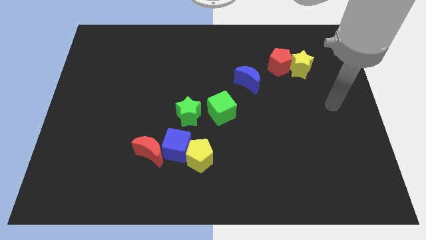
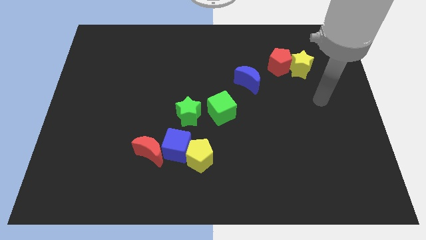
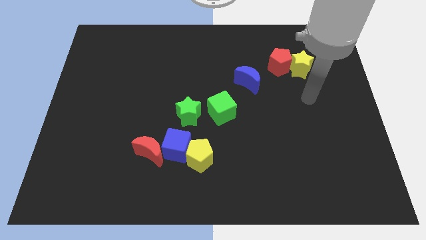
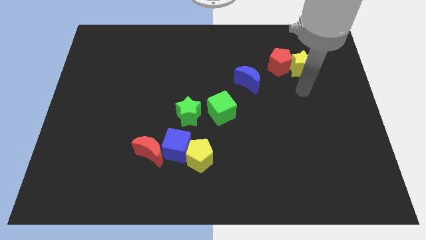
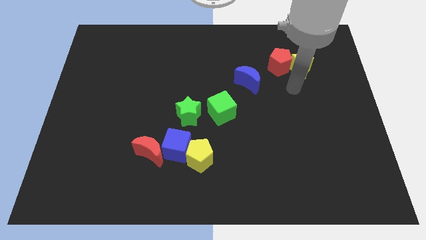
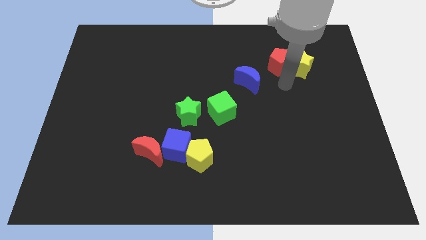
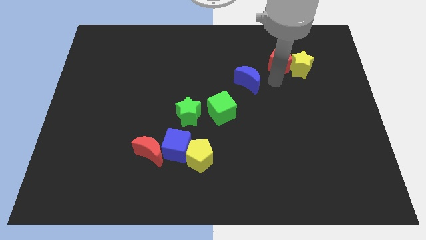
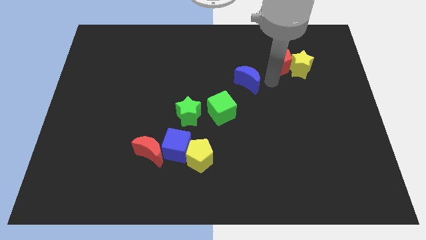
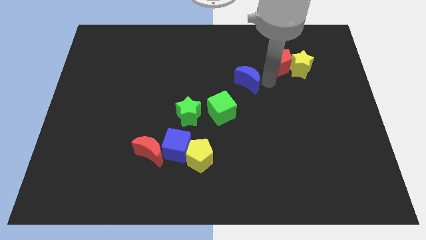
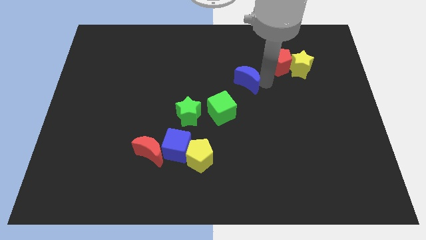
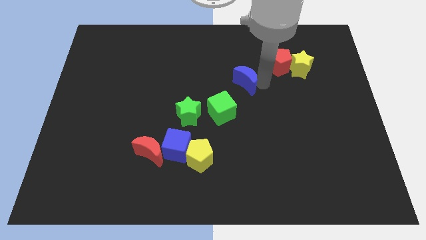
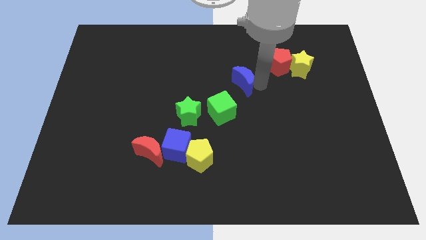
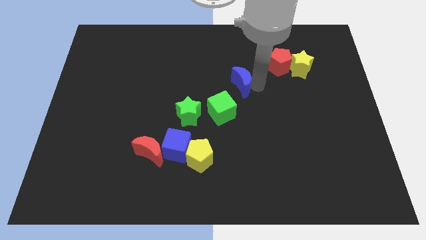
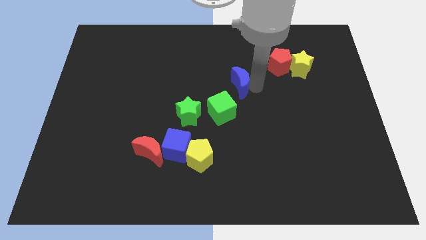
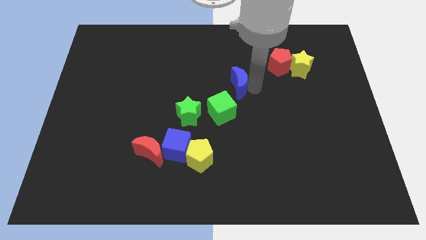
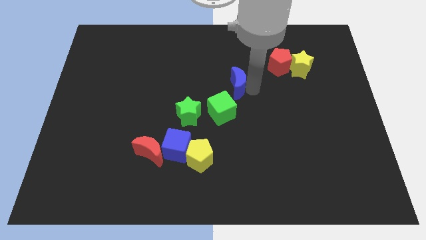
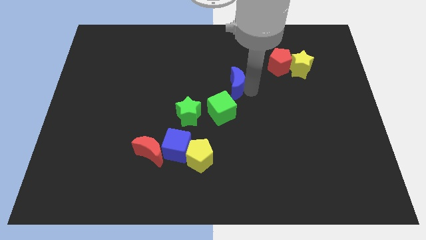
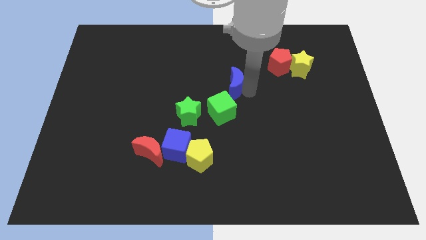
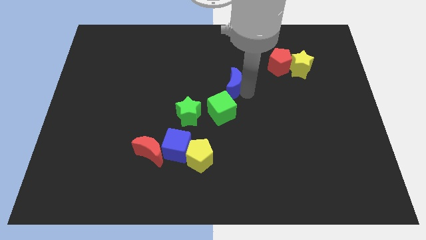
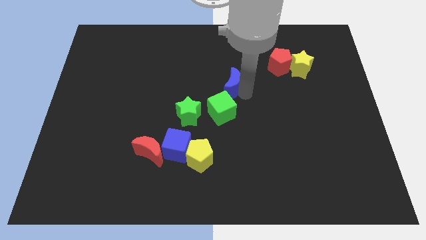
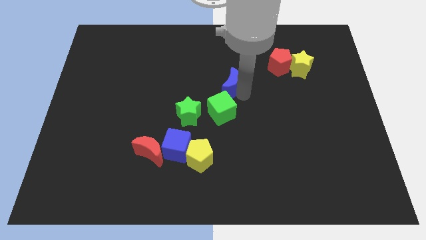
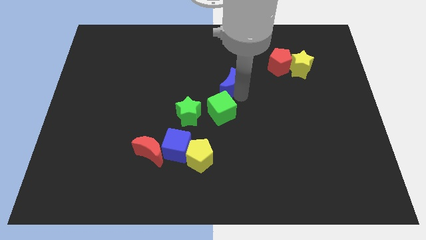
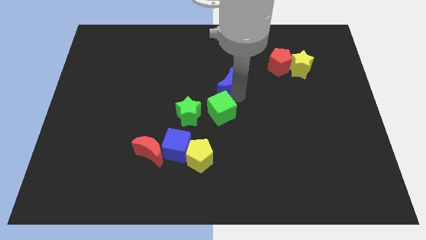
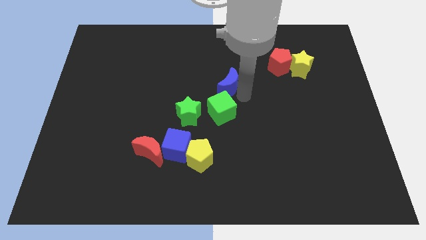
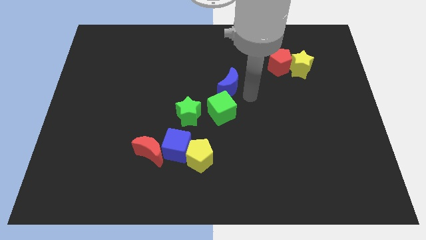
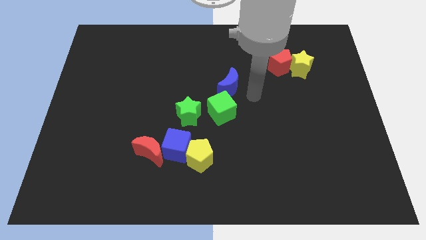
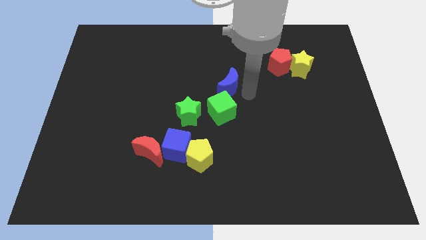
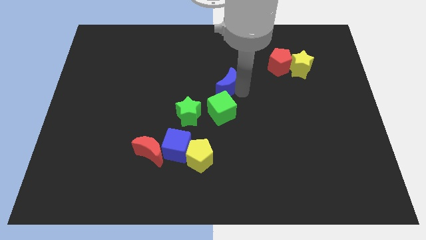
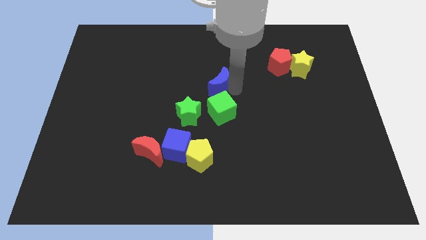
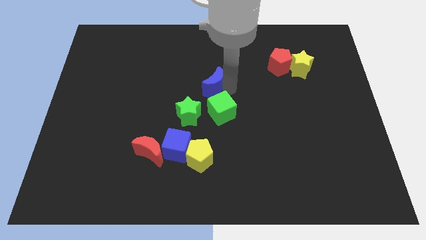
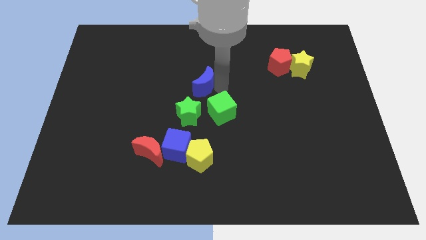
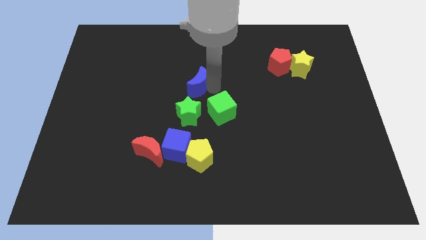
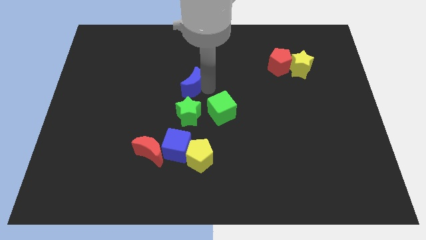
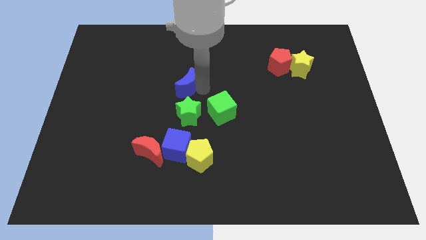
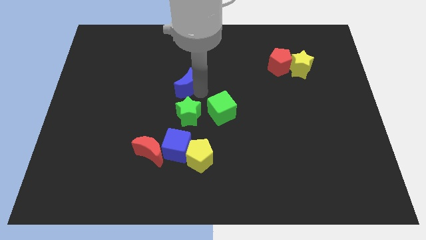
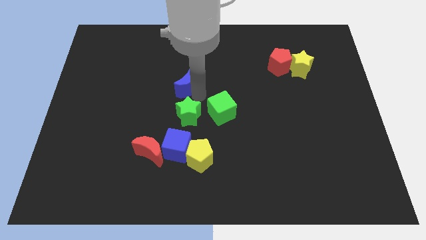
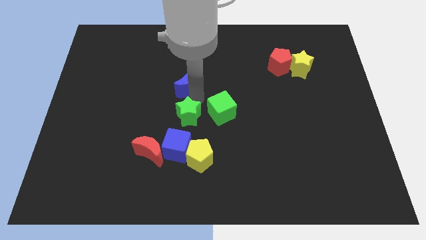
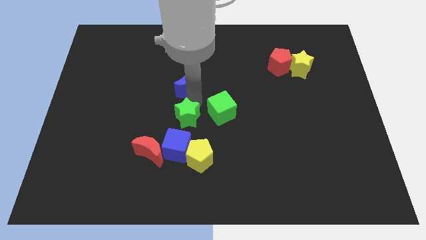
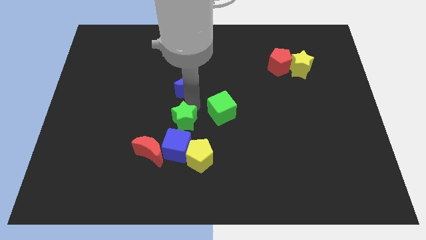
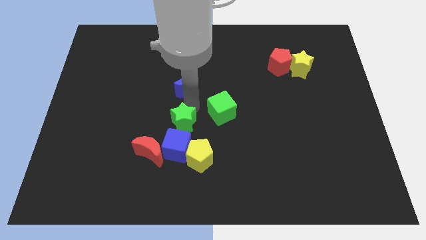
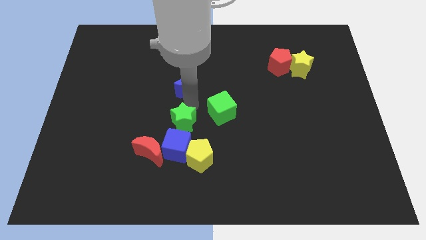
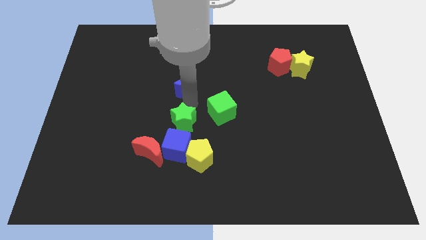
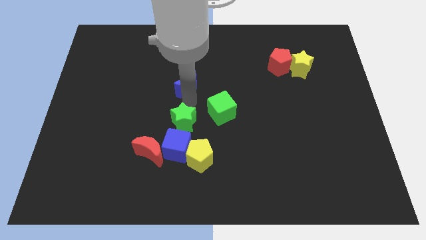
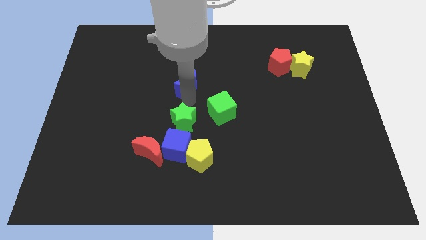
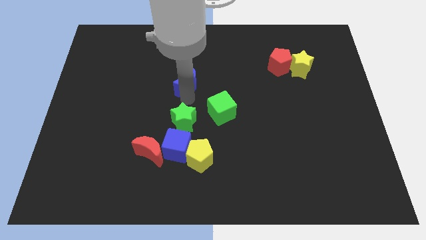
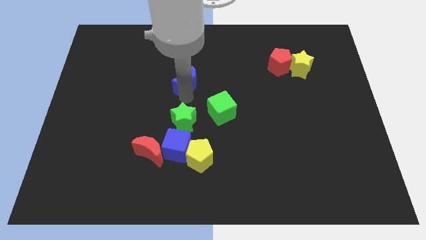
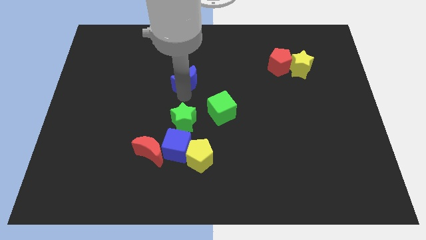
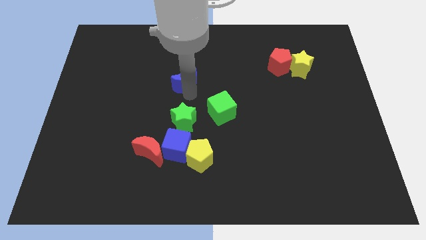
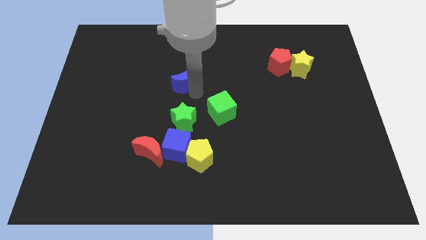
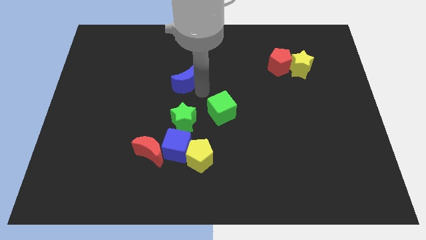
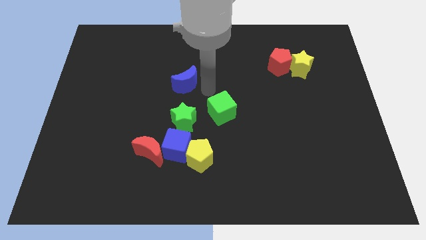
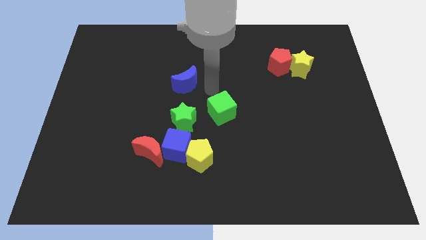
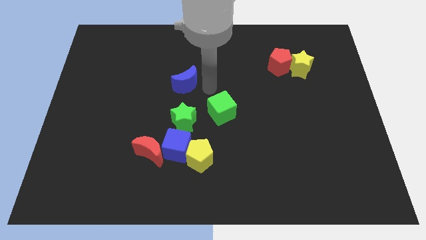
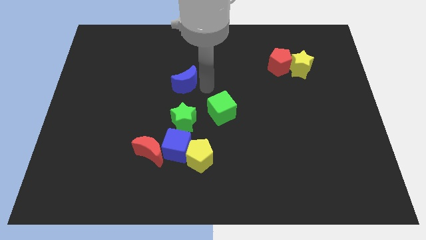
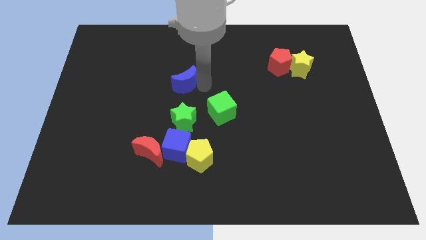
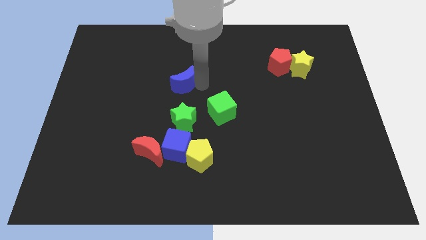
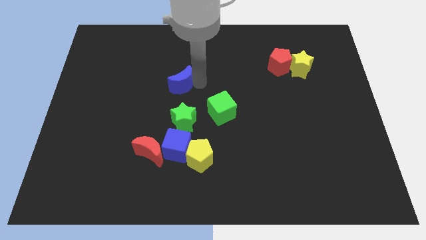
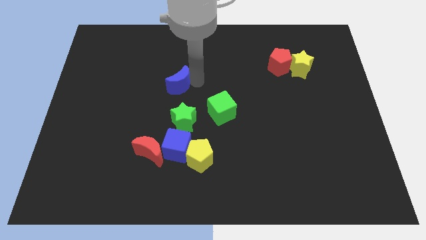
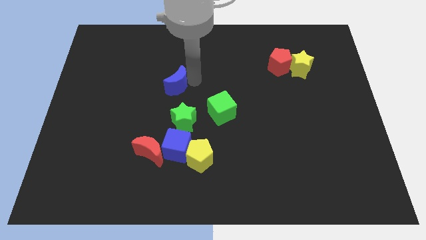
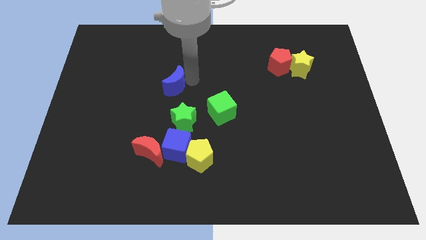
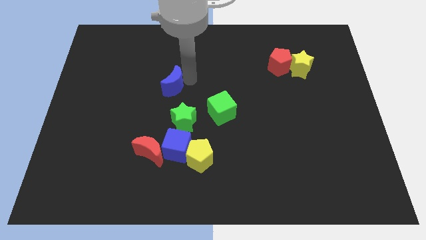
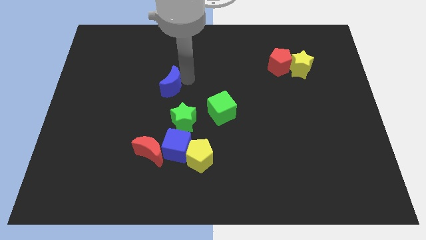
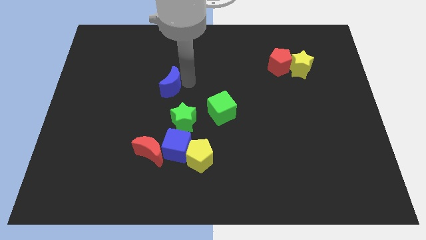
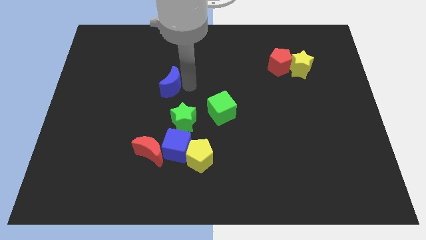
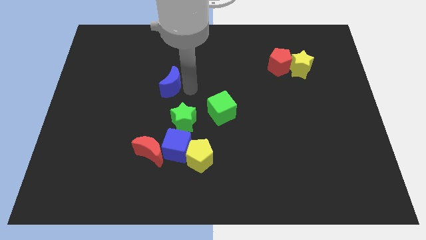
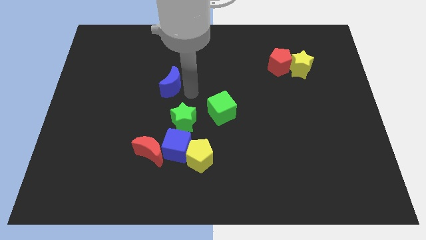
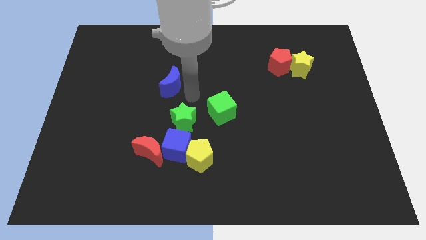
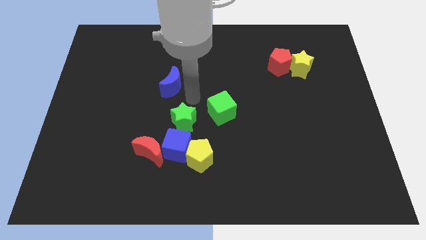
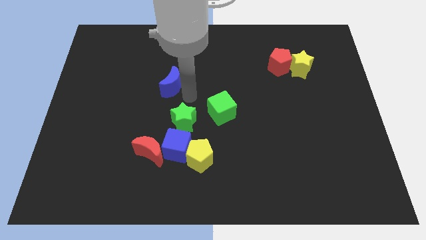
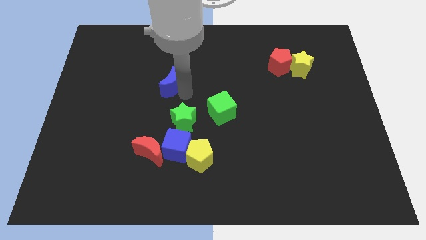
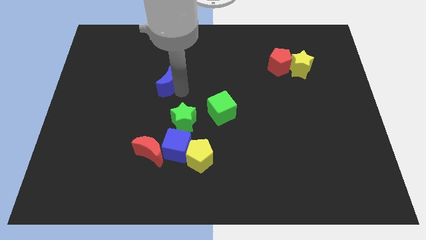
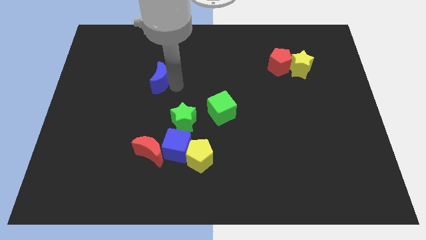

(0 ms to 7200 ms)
slide the blue moon left

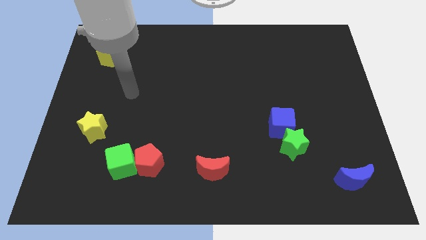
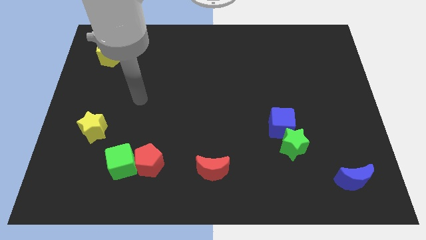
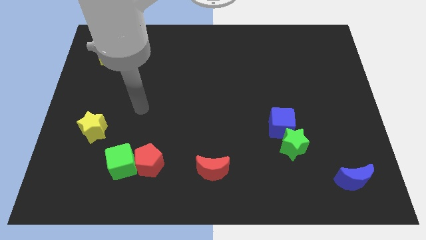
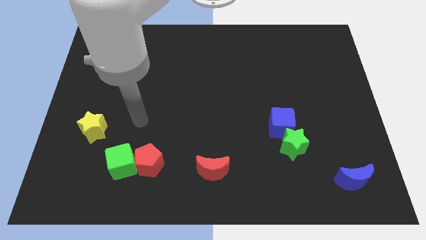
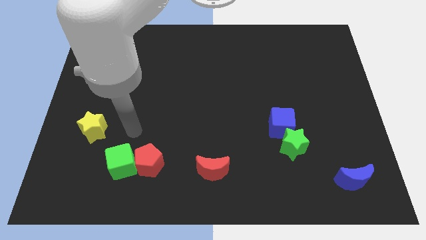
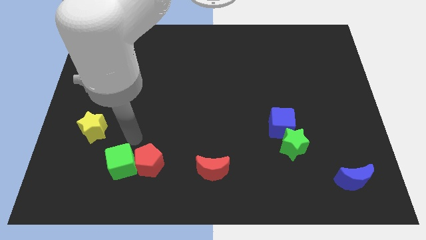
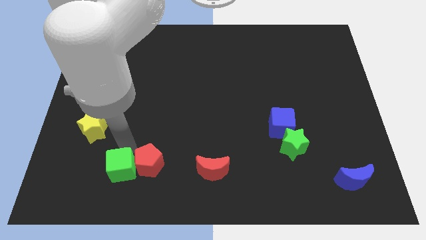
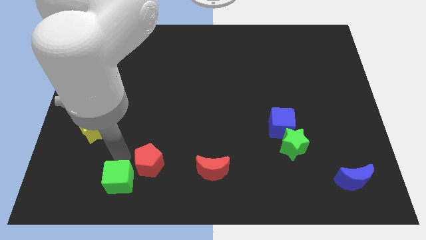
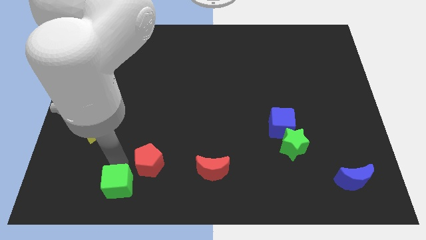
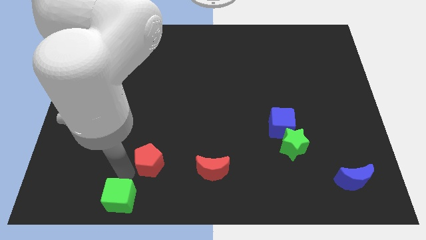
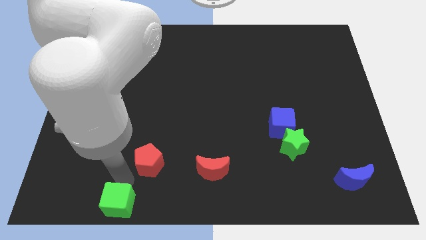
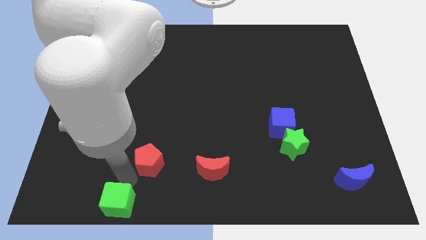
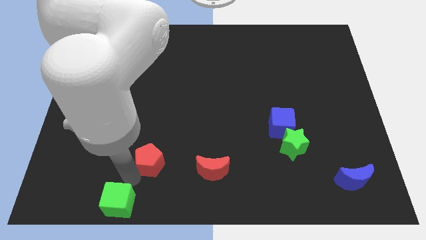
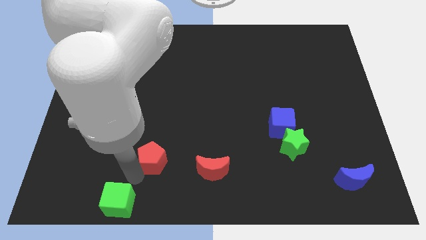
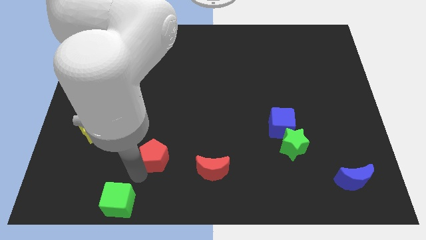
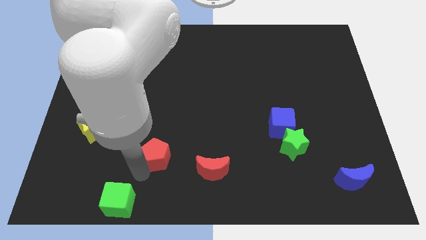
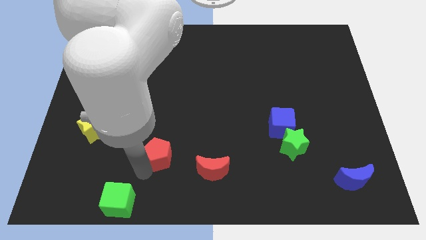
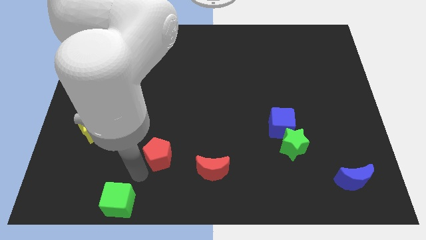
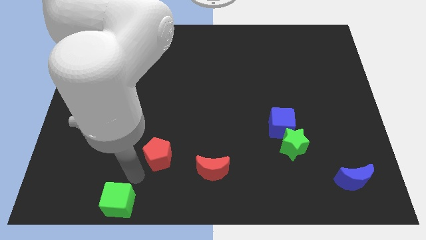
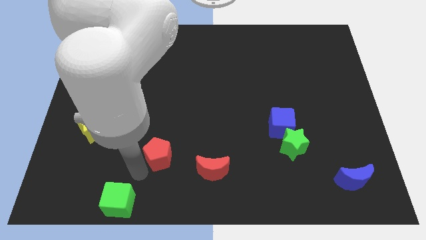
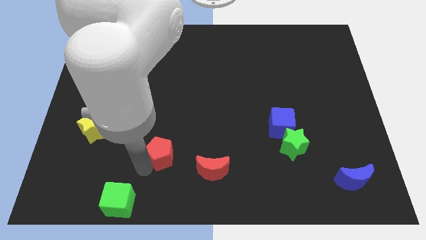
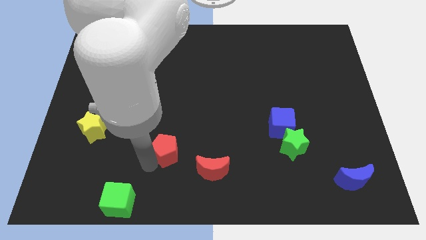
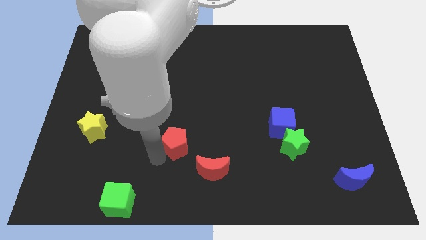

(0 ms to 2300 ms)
slightly push the red pentagon diagonally upwards and to the right
